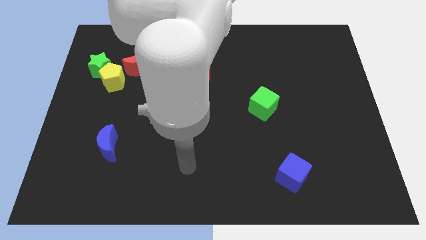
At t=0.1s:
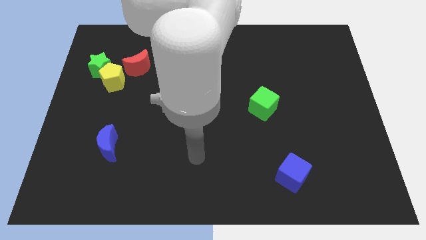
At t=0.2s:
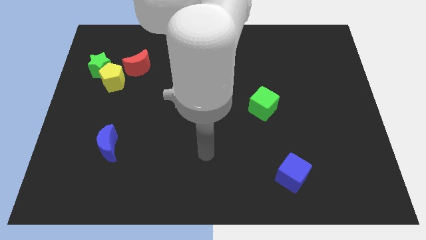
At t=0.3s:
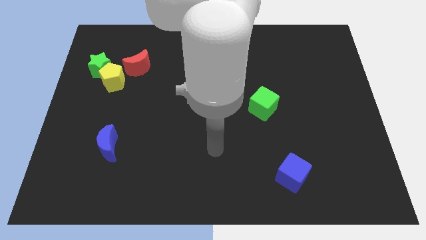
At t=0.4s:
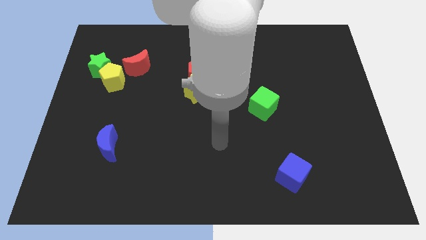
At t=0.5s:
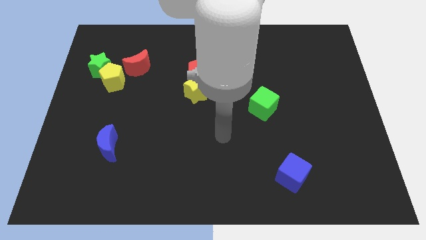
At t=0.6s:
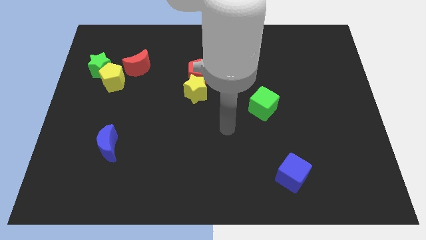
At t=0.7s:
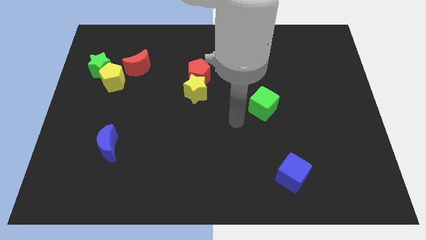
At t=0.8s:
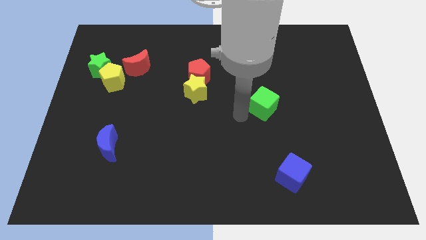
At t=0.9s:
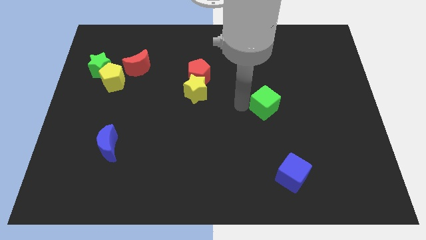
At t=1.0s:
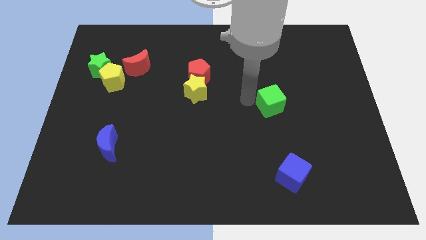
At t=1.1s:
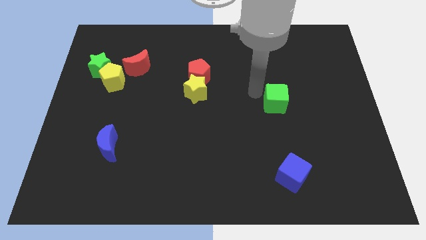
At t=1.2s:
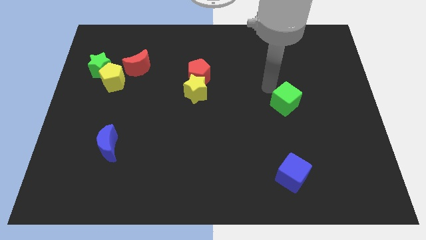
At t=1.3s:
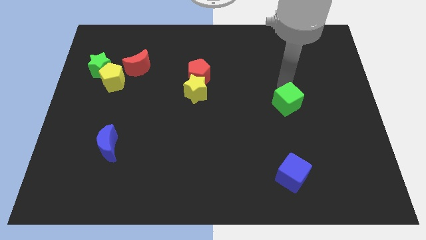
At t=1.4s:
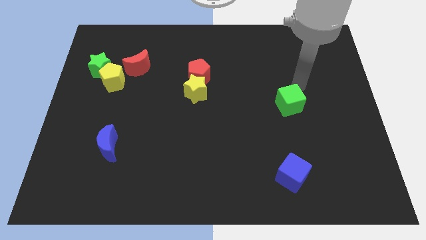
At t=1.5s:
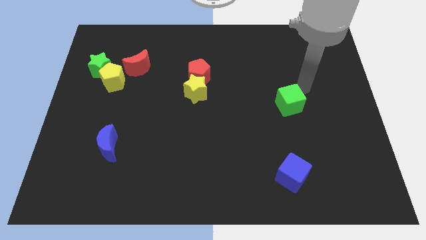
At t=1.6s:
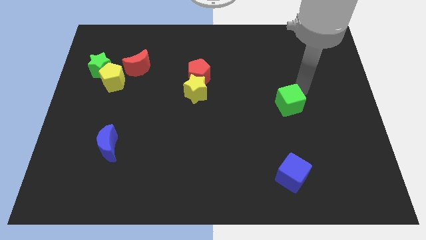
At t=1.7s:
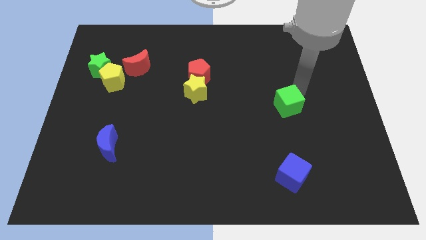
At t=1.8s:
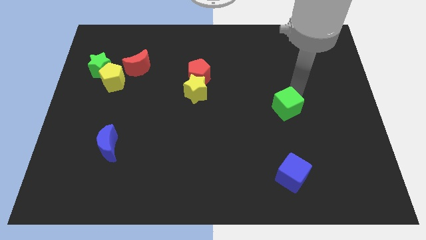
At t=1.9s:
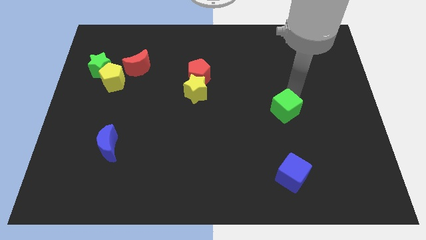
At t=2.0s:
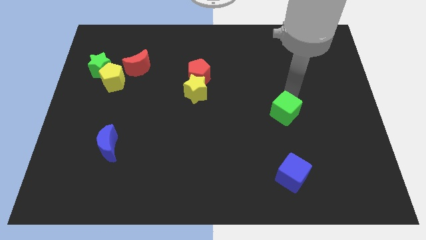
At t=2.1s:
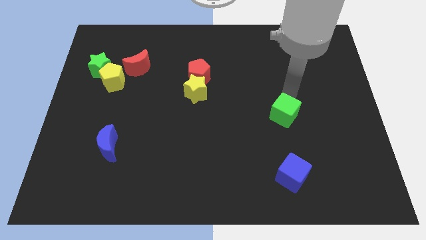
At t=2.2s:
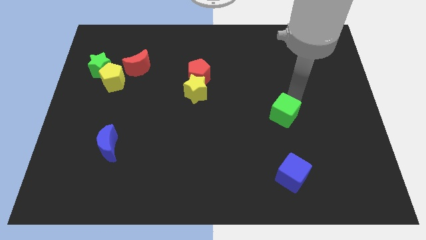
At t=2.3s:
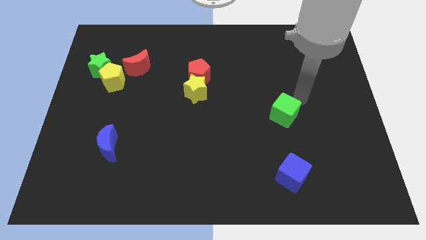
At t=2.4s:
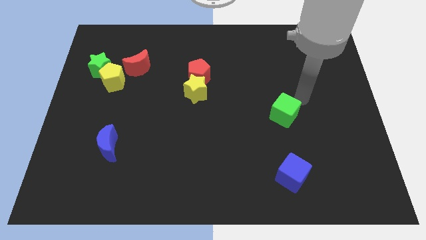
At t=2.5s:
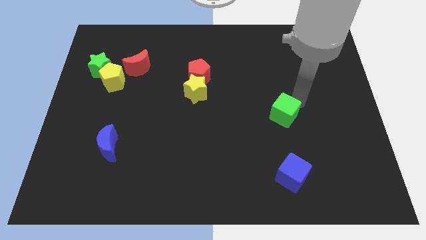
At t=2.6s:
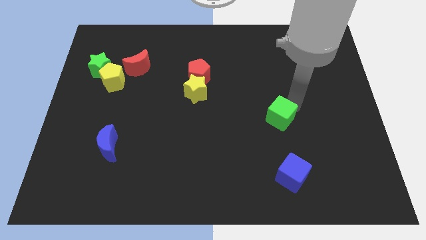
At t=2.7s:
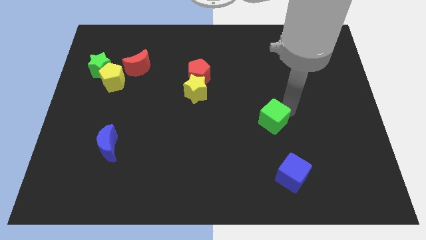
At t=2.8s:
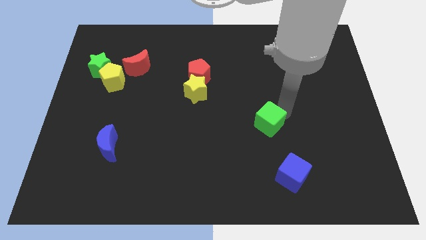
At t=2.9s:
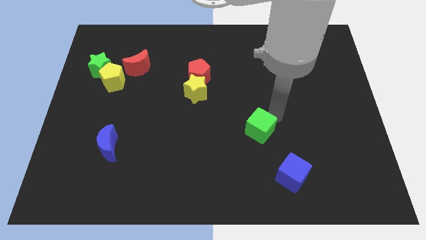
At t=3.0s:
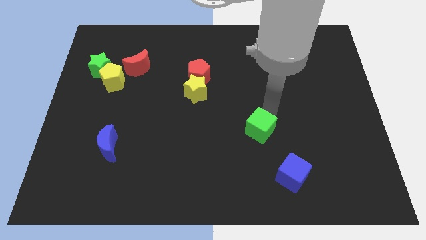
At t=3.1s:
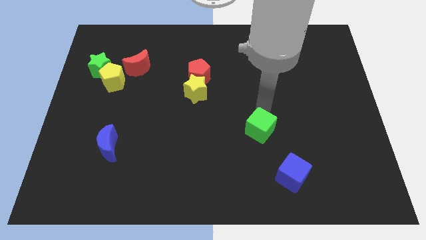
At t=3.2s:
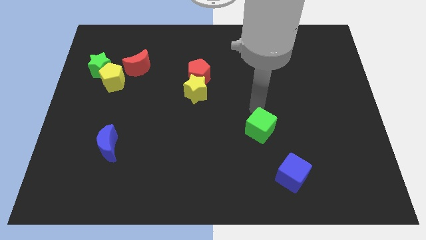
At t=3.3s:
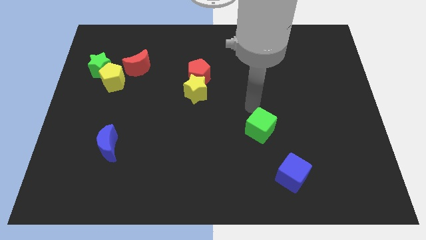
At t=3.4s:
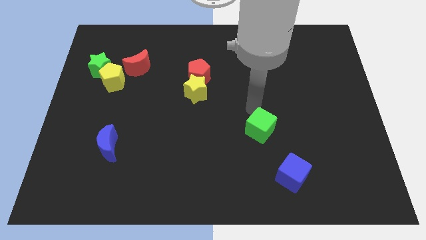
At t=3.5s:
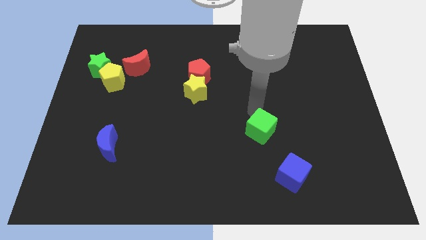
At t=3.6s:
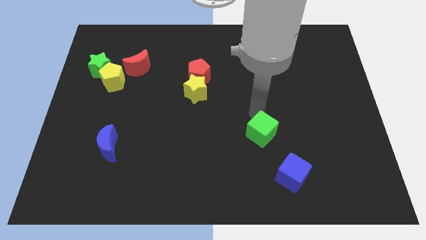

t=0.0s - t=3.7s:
move the green cube a little bit down

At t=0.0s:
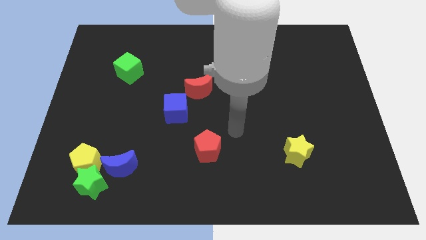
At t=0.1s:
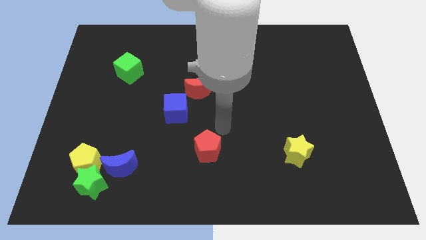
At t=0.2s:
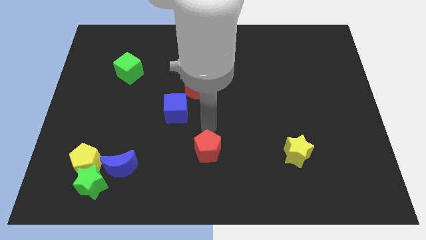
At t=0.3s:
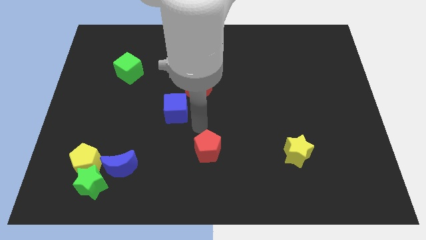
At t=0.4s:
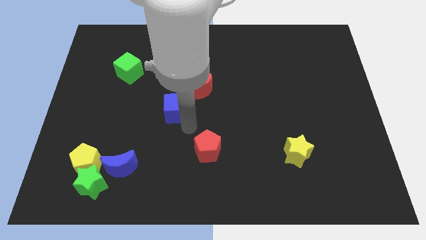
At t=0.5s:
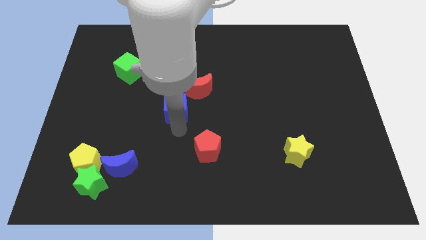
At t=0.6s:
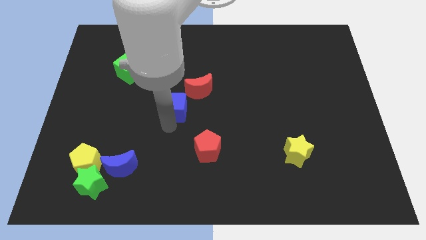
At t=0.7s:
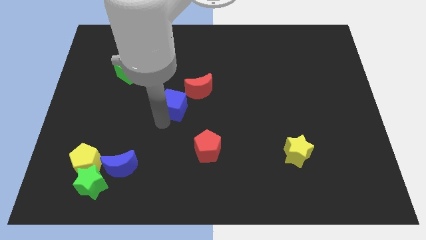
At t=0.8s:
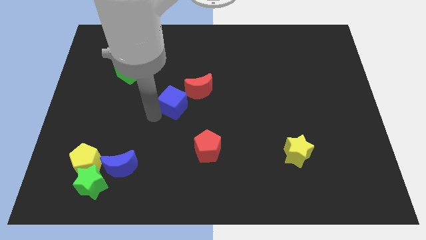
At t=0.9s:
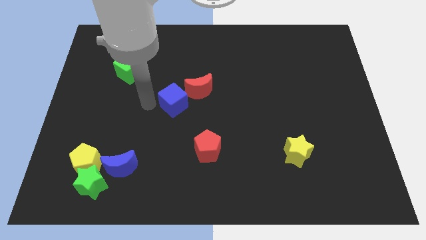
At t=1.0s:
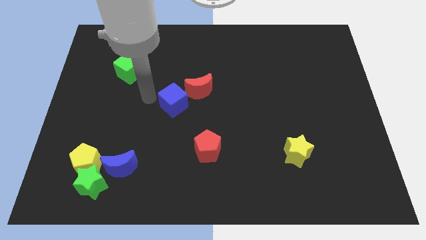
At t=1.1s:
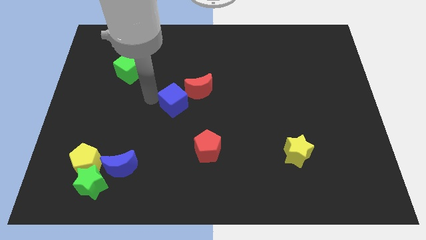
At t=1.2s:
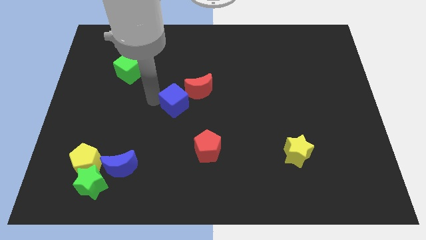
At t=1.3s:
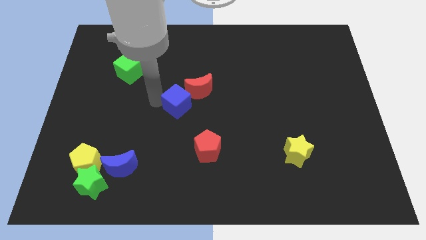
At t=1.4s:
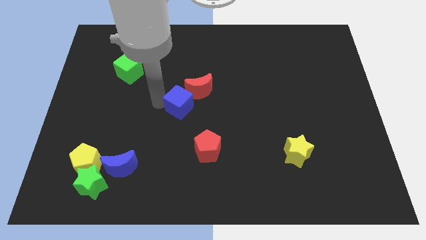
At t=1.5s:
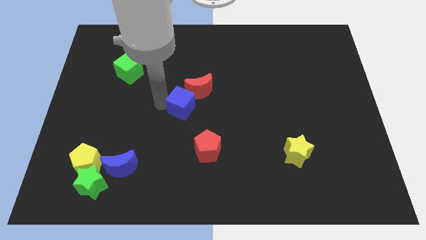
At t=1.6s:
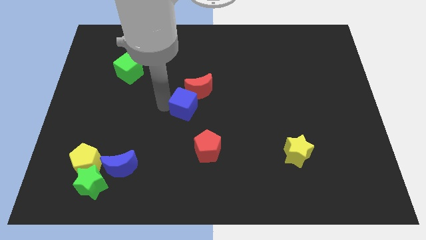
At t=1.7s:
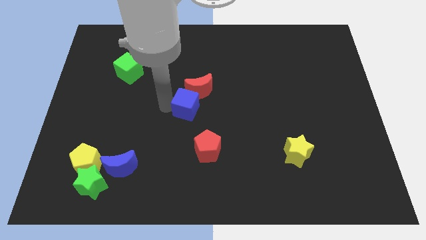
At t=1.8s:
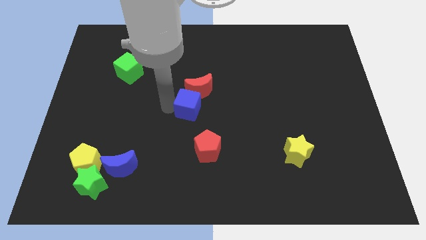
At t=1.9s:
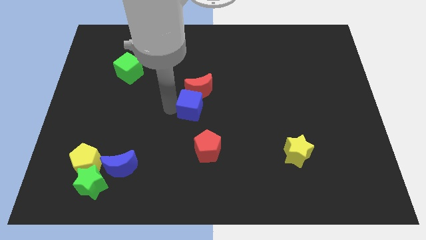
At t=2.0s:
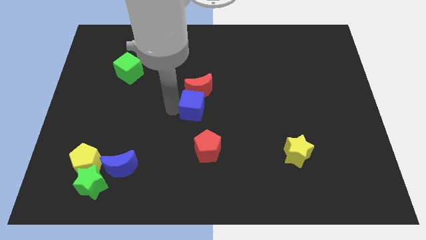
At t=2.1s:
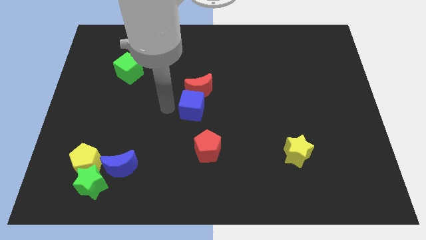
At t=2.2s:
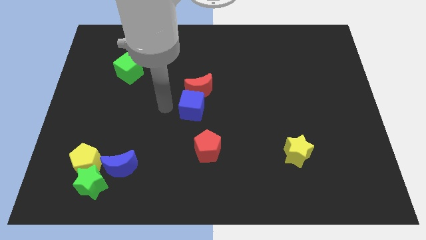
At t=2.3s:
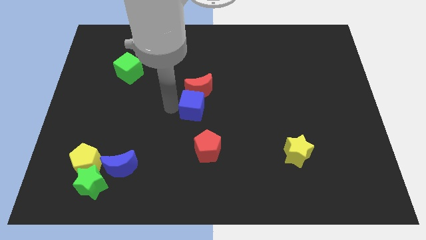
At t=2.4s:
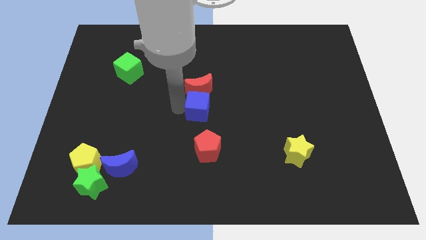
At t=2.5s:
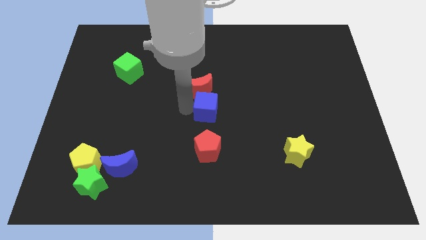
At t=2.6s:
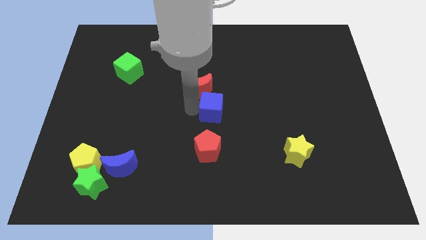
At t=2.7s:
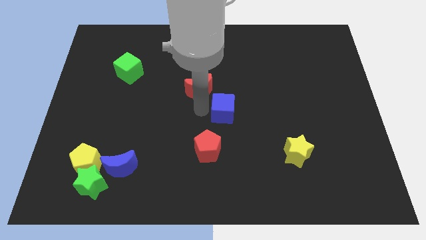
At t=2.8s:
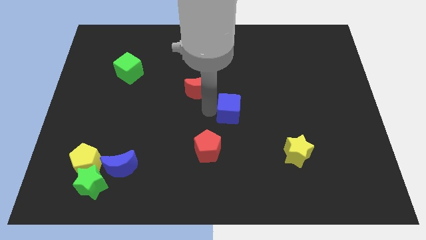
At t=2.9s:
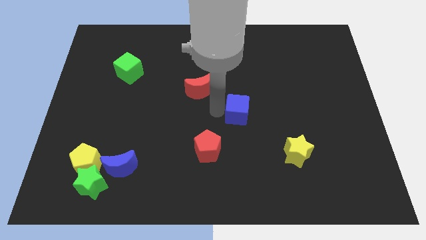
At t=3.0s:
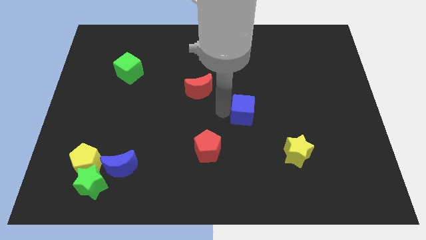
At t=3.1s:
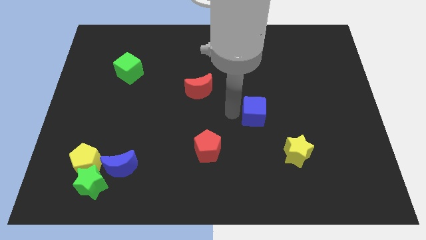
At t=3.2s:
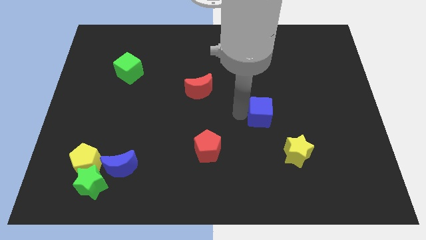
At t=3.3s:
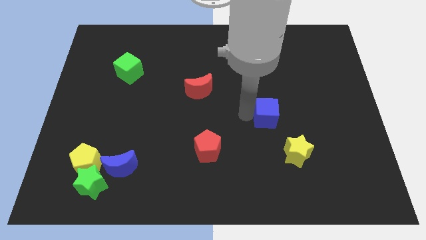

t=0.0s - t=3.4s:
push the blue cube right

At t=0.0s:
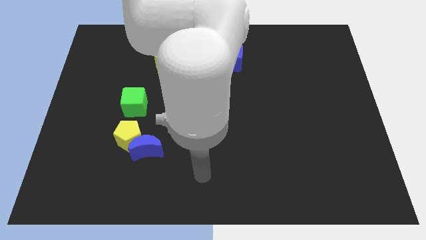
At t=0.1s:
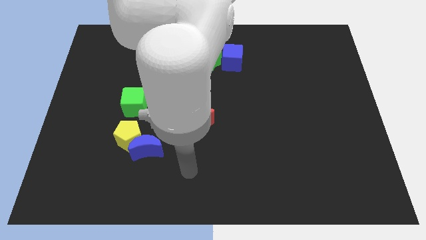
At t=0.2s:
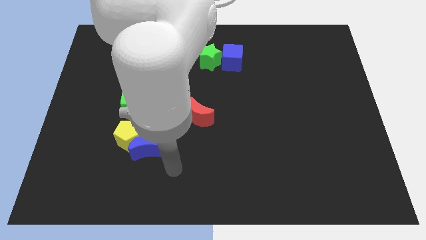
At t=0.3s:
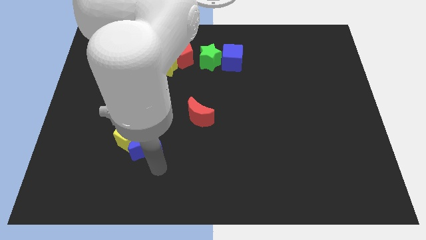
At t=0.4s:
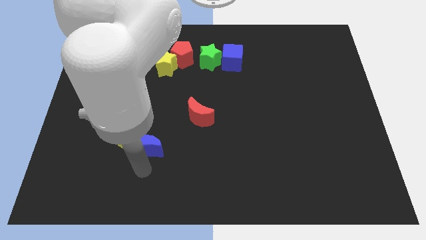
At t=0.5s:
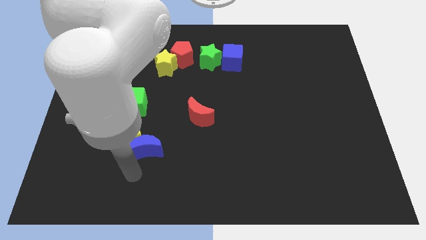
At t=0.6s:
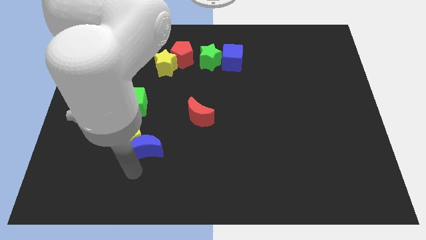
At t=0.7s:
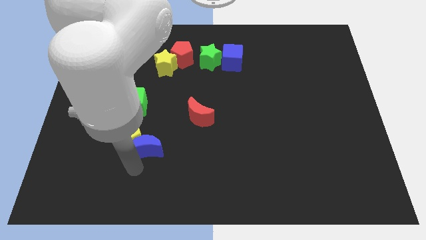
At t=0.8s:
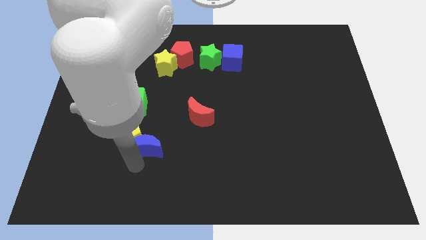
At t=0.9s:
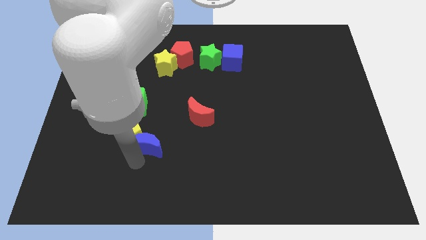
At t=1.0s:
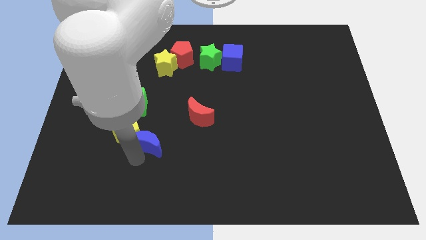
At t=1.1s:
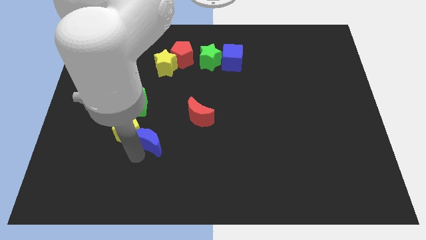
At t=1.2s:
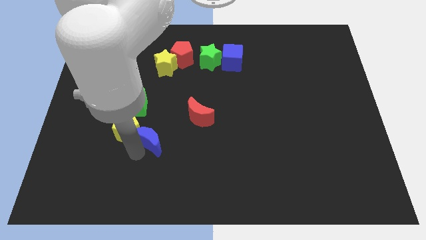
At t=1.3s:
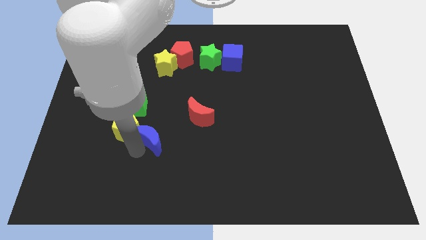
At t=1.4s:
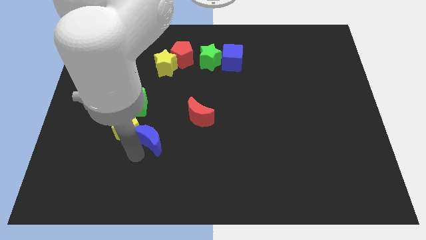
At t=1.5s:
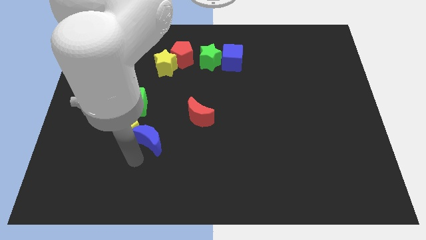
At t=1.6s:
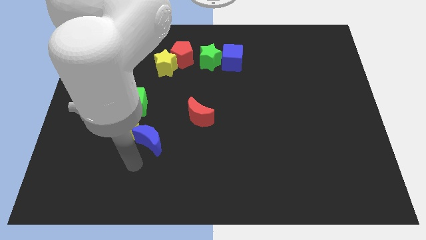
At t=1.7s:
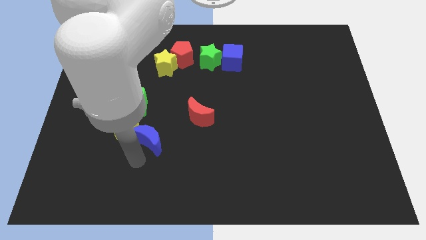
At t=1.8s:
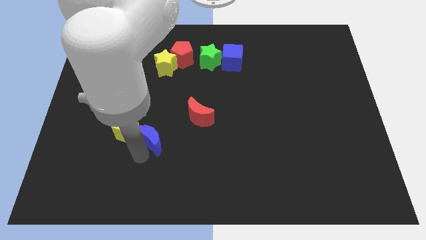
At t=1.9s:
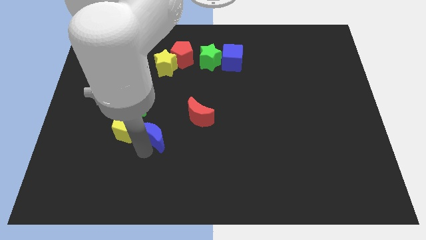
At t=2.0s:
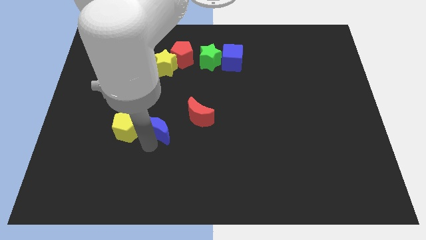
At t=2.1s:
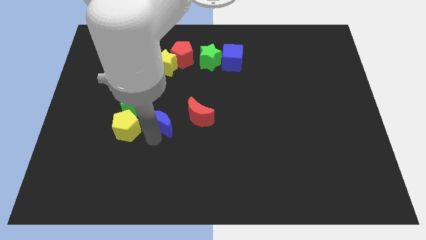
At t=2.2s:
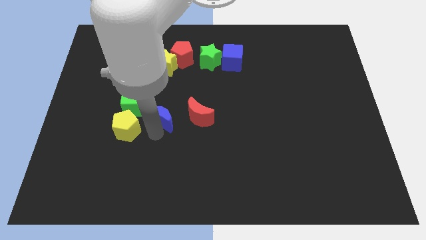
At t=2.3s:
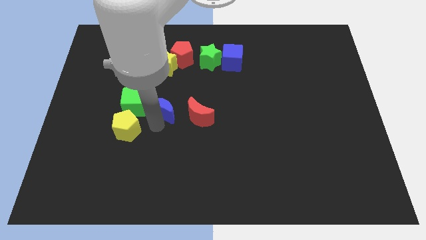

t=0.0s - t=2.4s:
slightly move the blue moon up and then to the right
